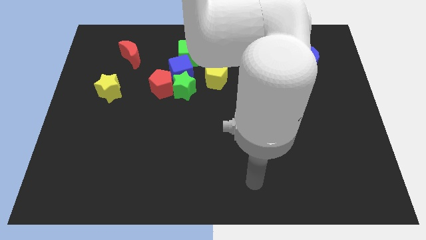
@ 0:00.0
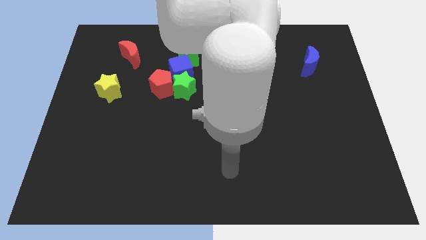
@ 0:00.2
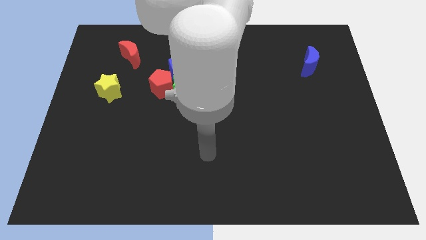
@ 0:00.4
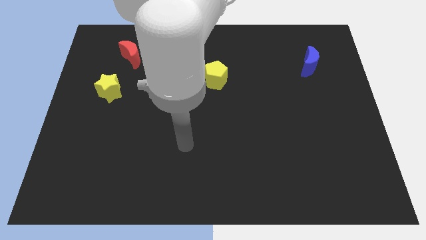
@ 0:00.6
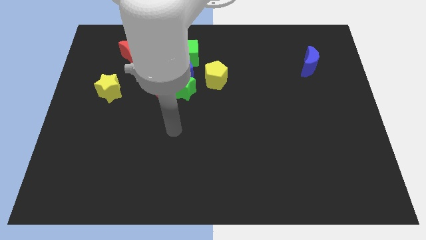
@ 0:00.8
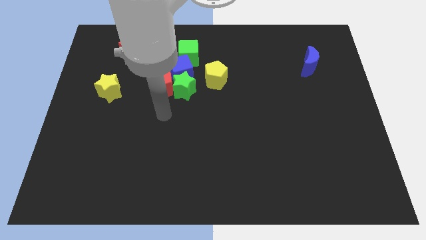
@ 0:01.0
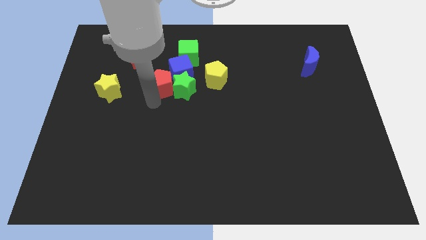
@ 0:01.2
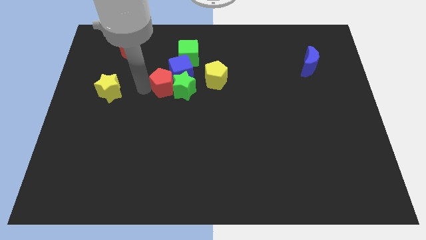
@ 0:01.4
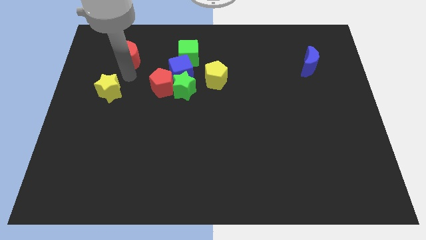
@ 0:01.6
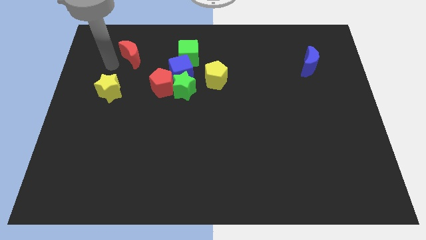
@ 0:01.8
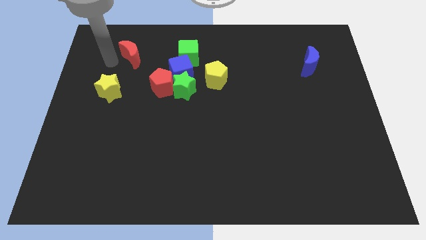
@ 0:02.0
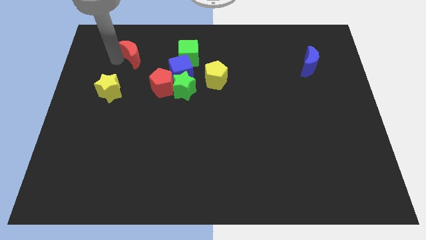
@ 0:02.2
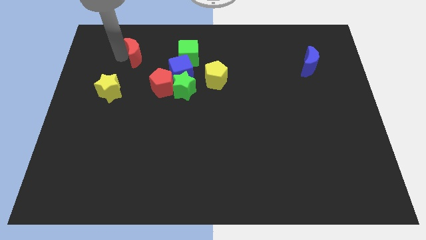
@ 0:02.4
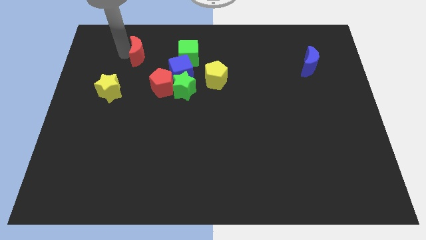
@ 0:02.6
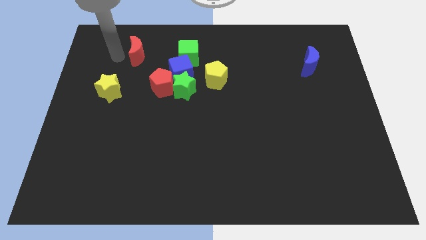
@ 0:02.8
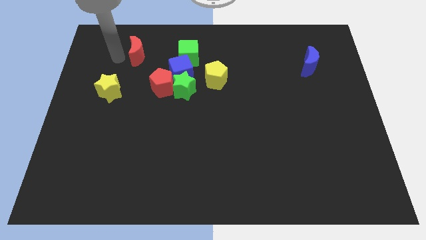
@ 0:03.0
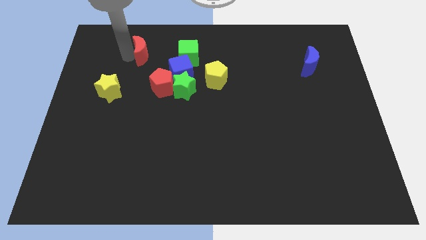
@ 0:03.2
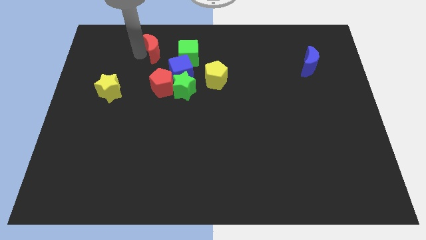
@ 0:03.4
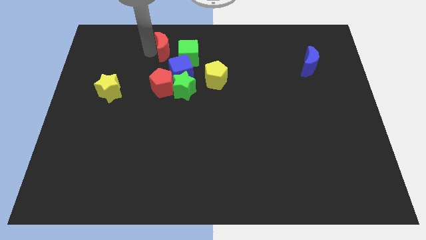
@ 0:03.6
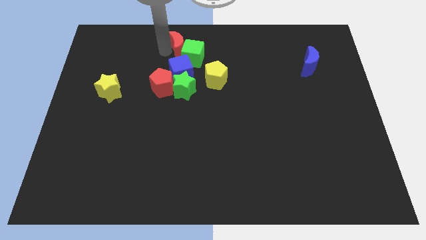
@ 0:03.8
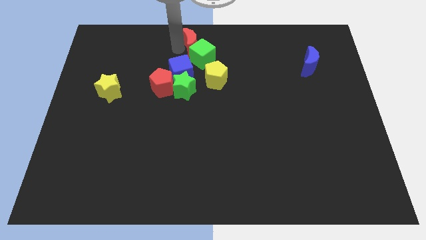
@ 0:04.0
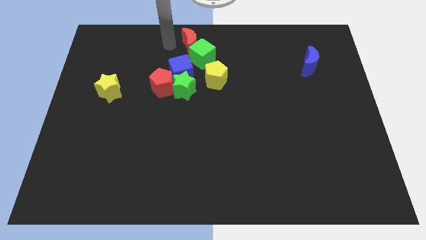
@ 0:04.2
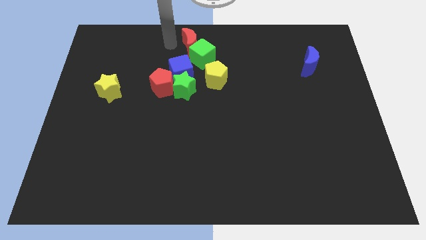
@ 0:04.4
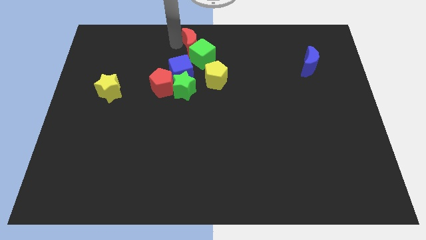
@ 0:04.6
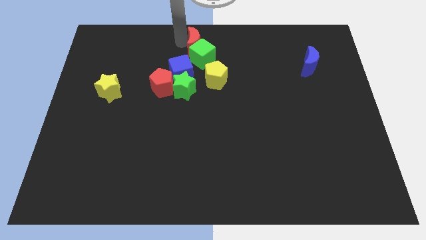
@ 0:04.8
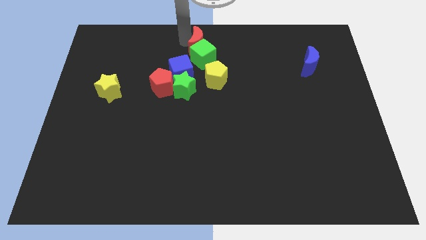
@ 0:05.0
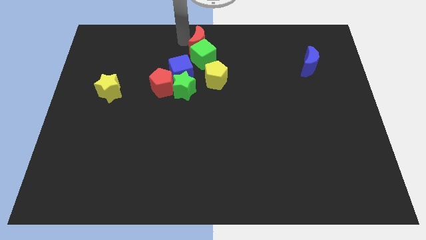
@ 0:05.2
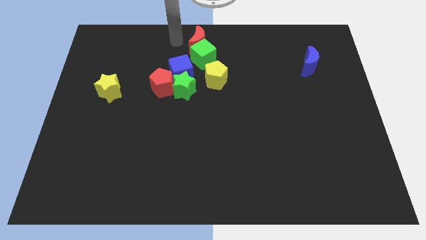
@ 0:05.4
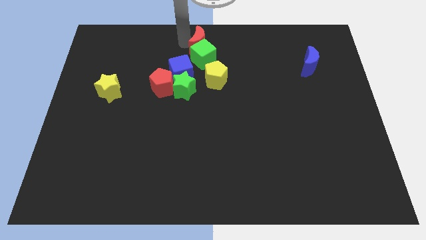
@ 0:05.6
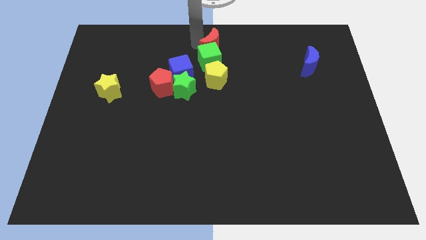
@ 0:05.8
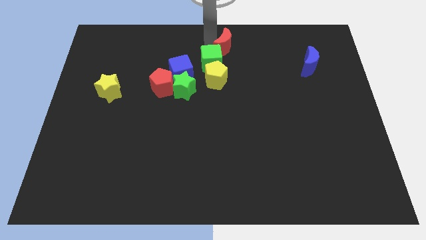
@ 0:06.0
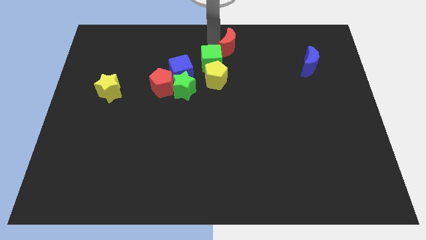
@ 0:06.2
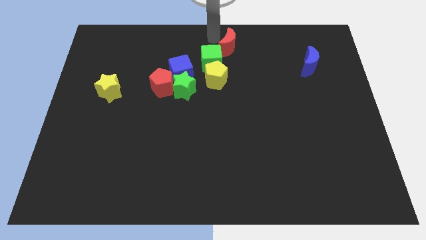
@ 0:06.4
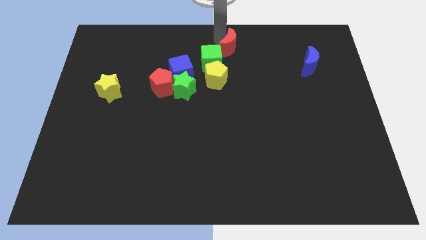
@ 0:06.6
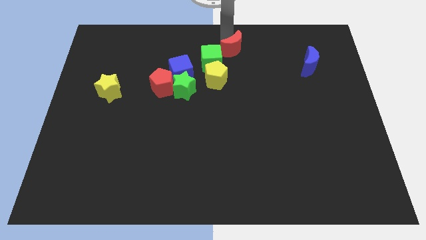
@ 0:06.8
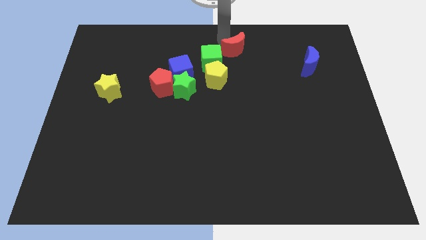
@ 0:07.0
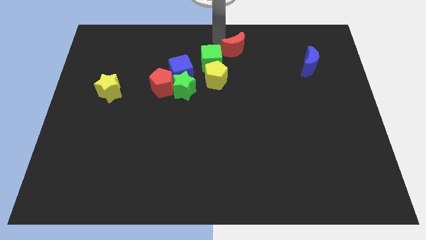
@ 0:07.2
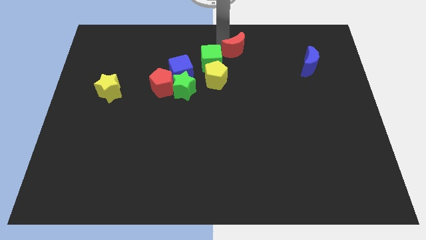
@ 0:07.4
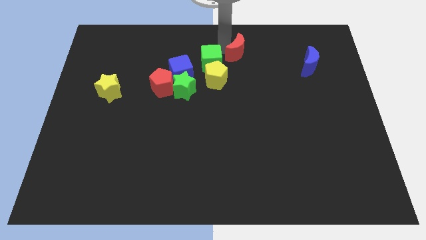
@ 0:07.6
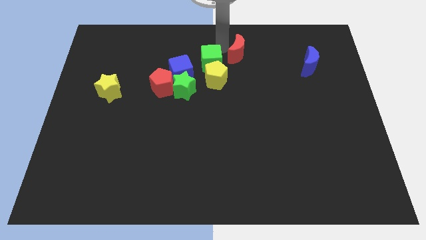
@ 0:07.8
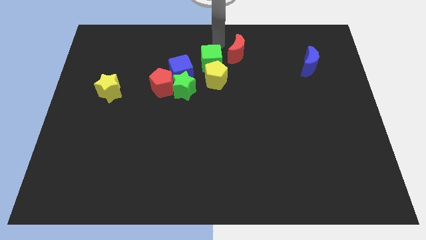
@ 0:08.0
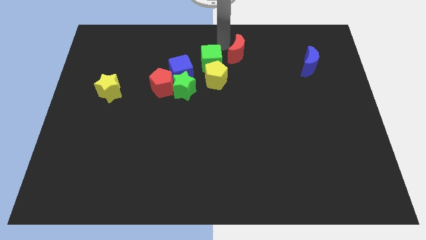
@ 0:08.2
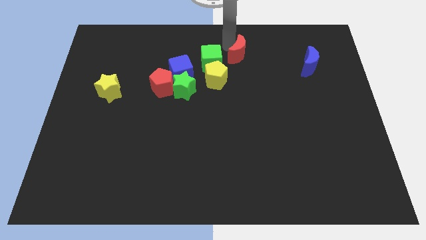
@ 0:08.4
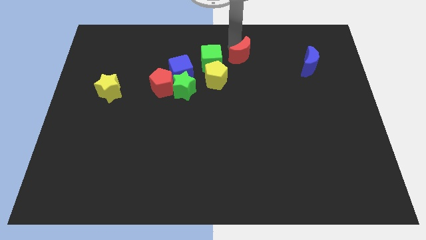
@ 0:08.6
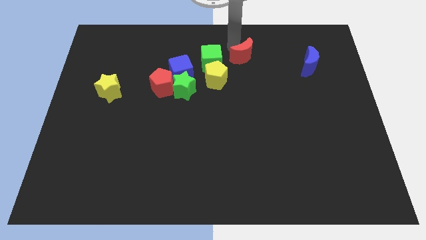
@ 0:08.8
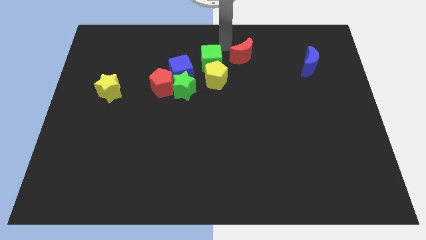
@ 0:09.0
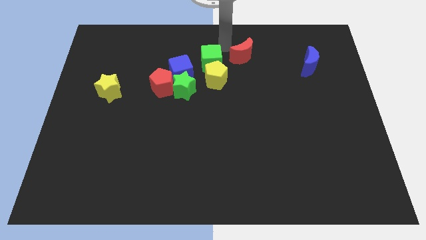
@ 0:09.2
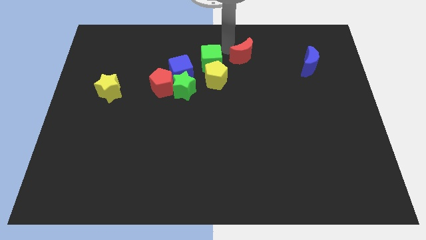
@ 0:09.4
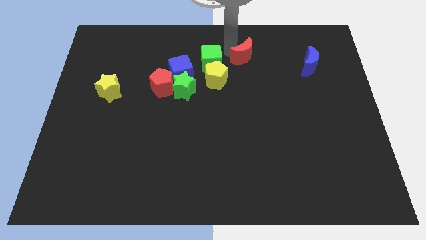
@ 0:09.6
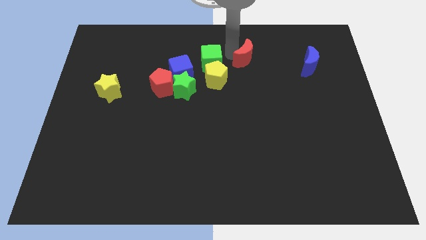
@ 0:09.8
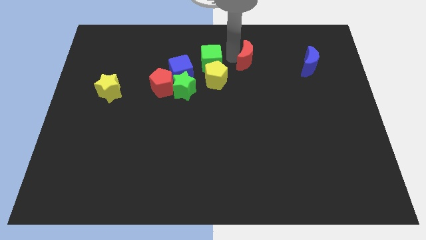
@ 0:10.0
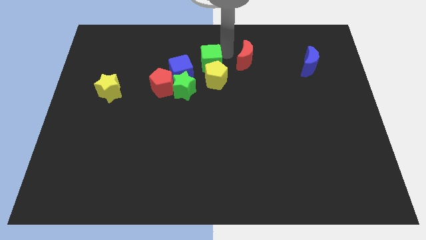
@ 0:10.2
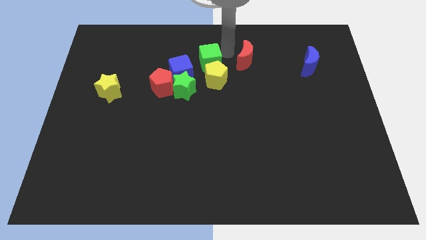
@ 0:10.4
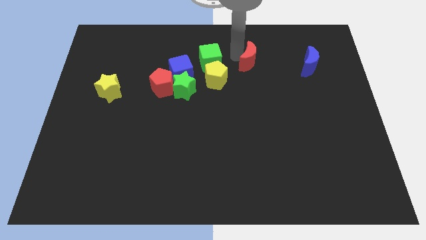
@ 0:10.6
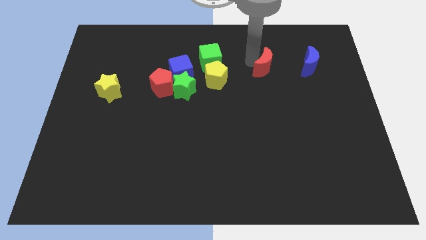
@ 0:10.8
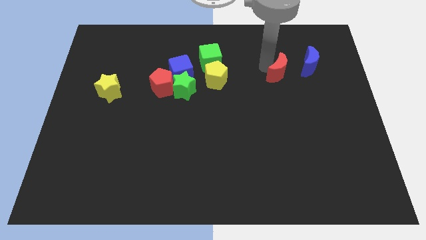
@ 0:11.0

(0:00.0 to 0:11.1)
move the red moon diagonally down and to the left of the blue moon

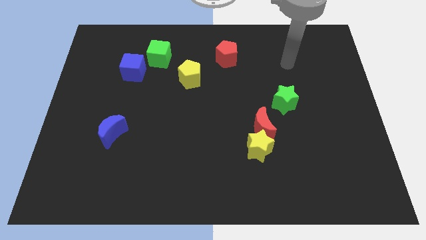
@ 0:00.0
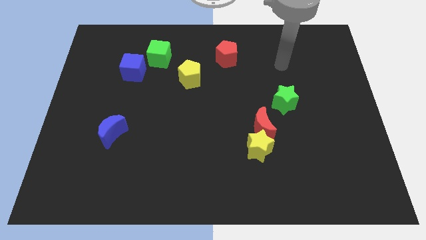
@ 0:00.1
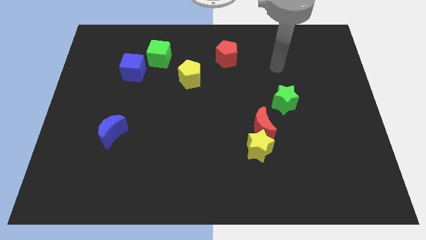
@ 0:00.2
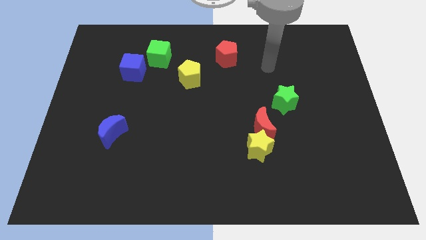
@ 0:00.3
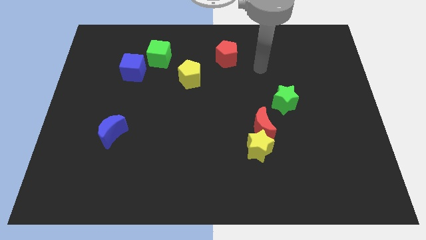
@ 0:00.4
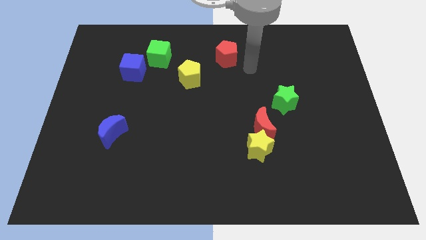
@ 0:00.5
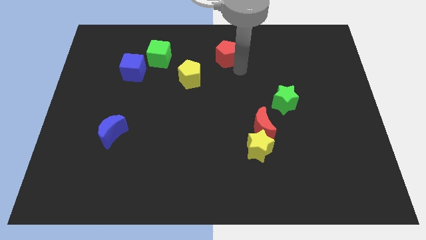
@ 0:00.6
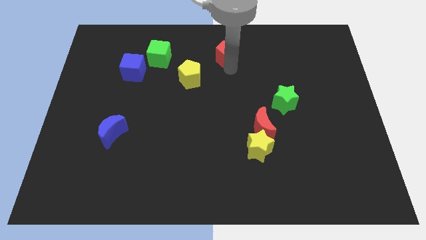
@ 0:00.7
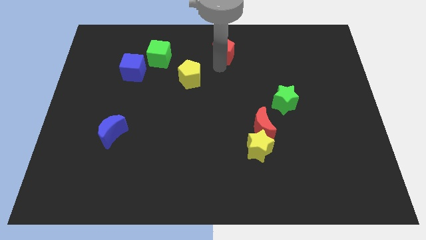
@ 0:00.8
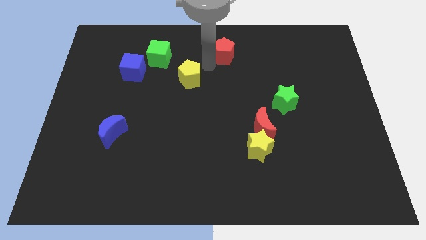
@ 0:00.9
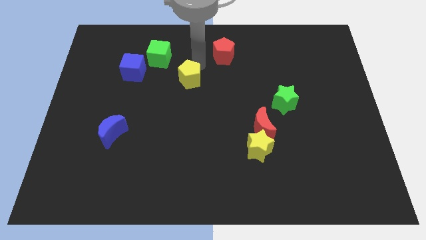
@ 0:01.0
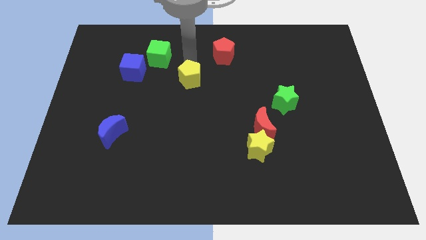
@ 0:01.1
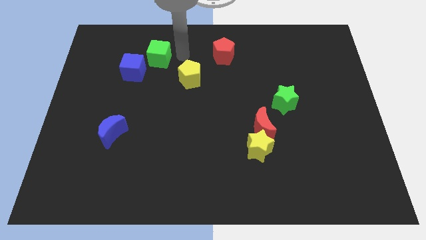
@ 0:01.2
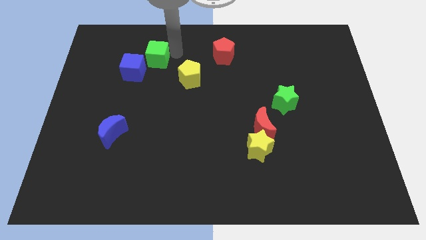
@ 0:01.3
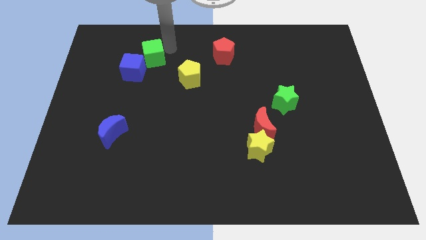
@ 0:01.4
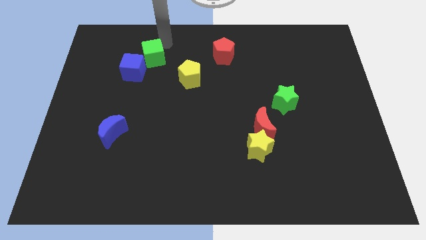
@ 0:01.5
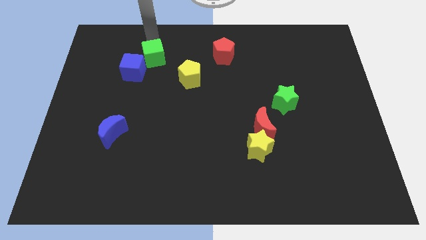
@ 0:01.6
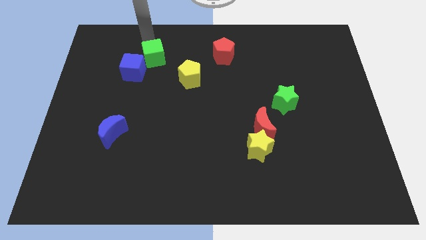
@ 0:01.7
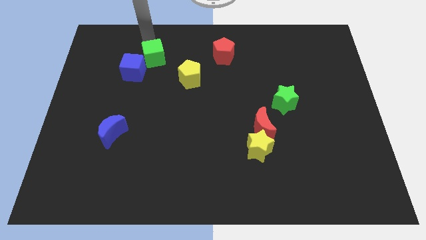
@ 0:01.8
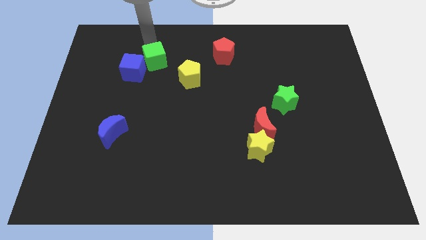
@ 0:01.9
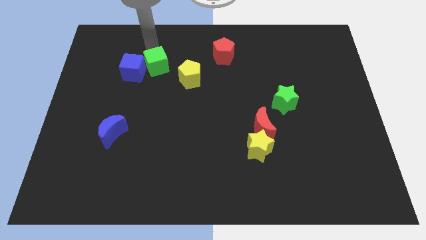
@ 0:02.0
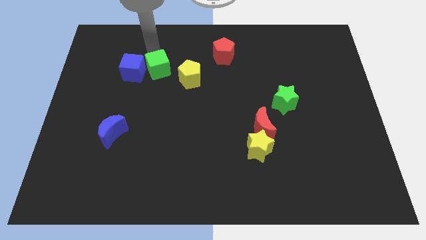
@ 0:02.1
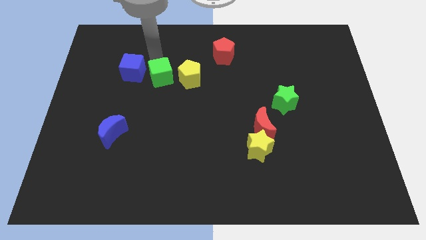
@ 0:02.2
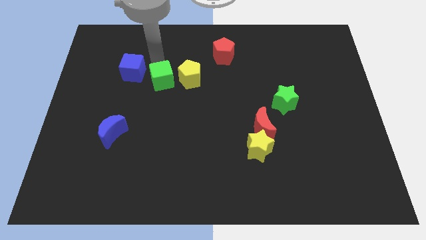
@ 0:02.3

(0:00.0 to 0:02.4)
move the green cube to the bottom left of the yellow pentagon
